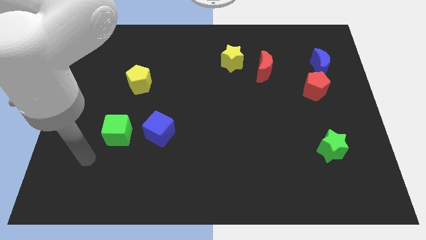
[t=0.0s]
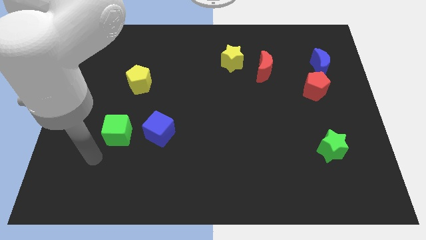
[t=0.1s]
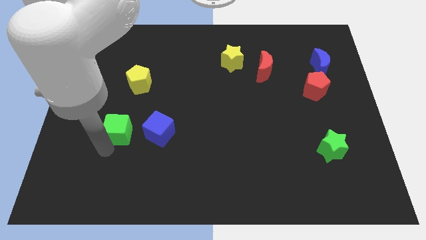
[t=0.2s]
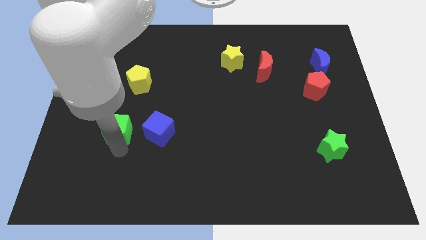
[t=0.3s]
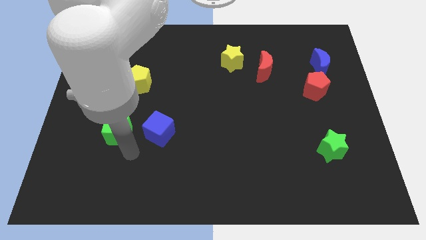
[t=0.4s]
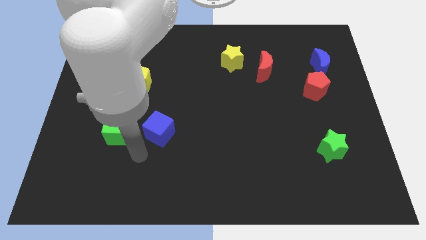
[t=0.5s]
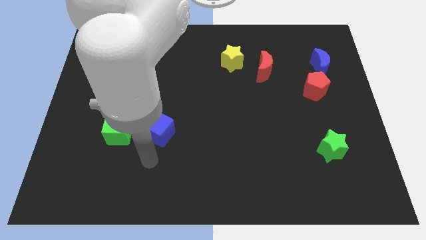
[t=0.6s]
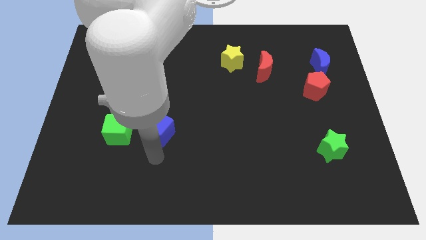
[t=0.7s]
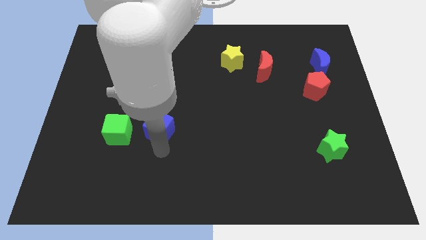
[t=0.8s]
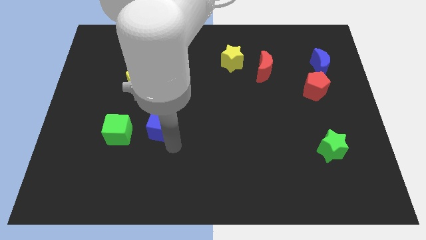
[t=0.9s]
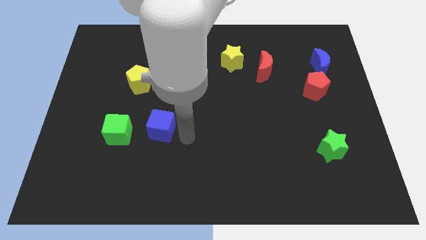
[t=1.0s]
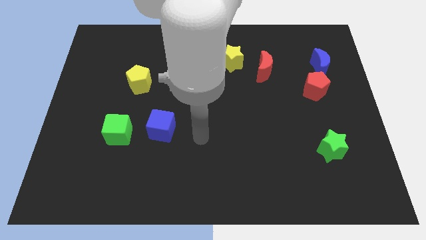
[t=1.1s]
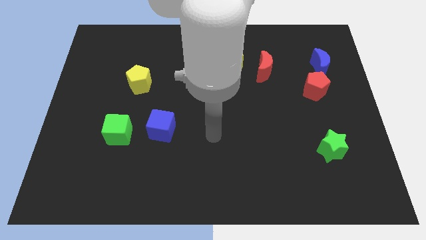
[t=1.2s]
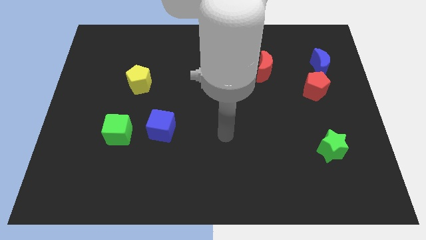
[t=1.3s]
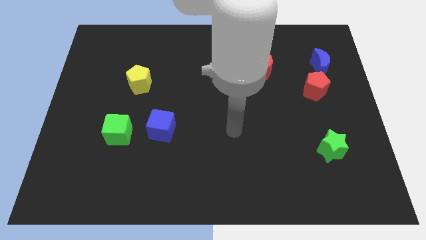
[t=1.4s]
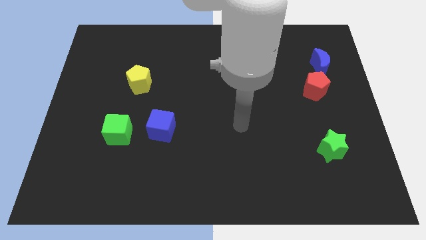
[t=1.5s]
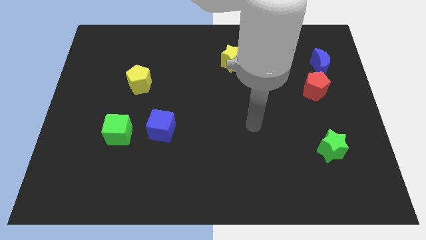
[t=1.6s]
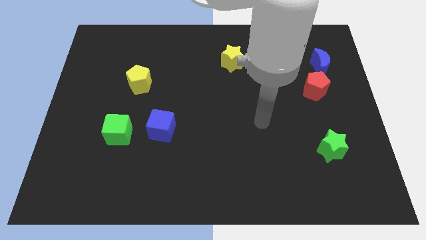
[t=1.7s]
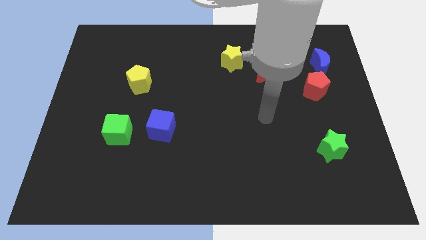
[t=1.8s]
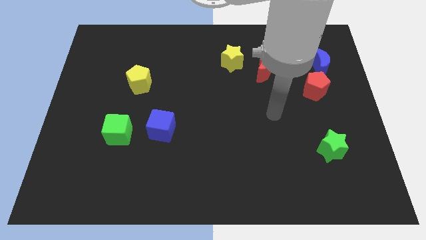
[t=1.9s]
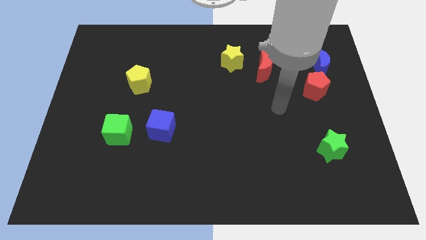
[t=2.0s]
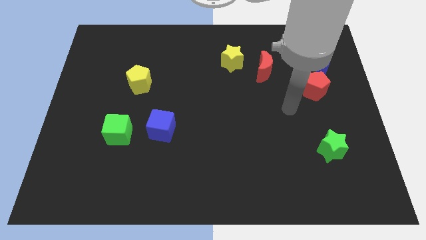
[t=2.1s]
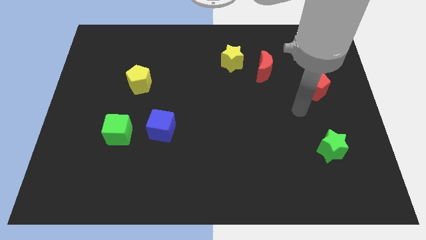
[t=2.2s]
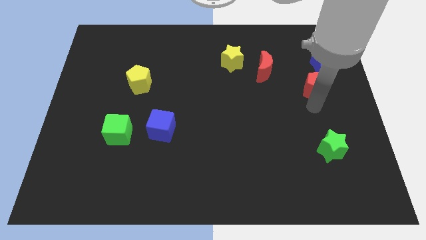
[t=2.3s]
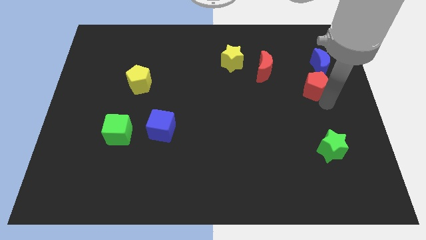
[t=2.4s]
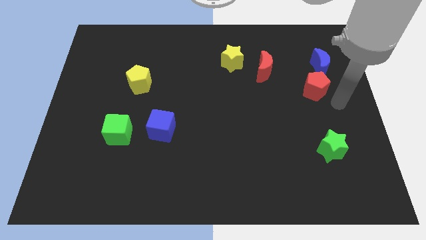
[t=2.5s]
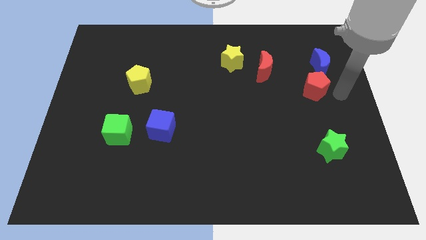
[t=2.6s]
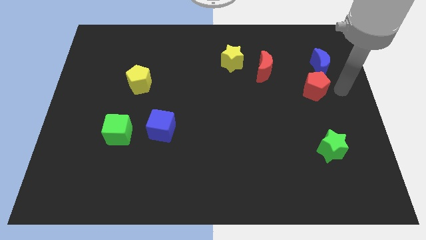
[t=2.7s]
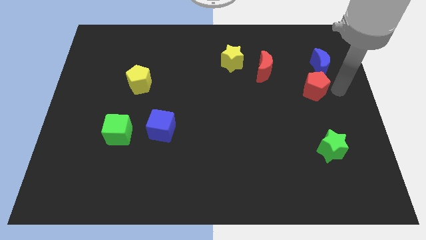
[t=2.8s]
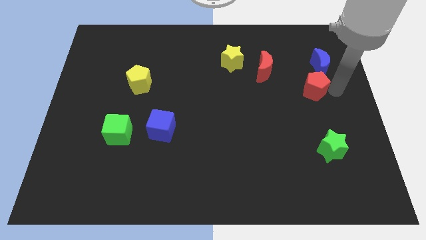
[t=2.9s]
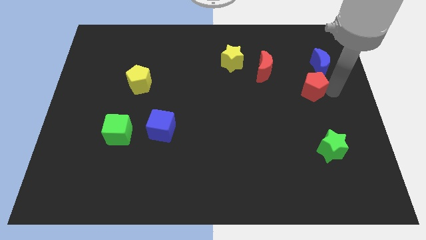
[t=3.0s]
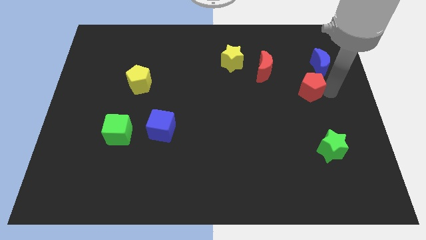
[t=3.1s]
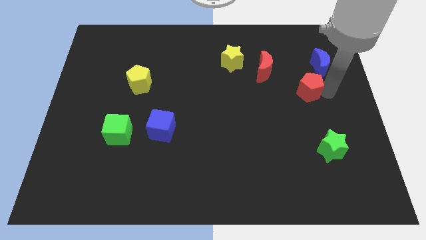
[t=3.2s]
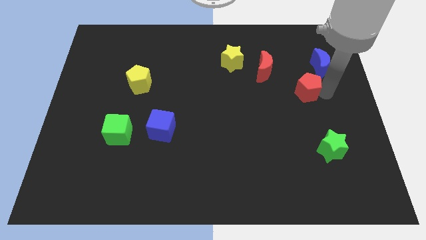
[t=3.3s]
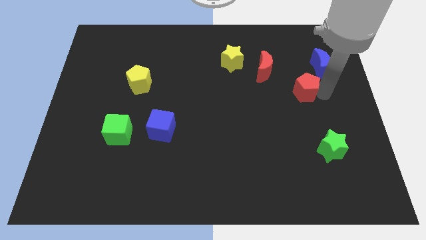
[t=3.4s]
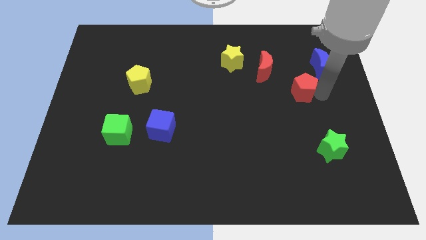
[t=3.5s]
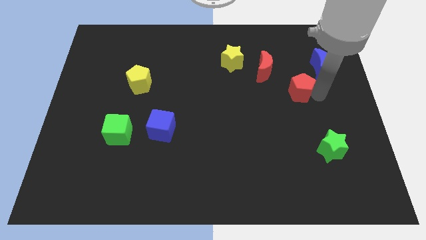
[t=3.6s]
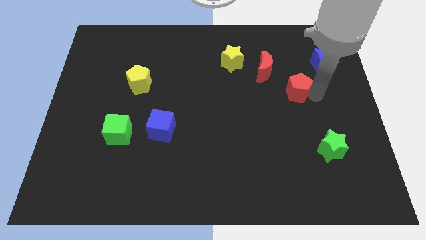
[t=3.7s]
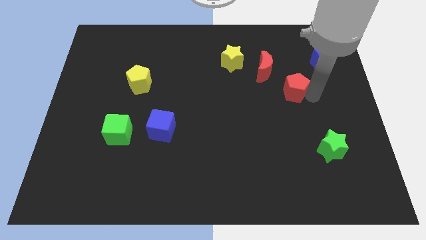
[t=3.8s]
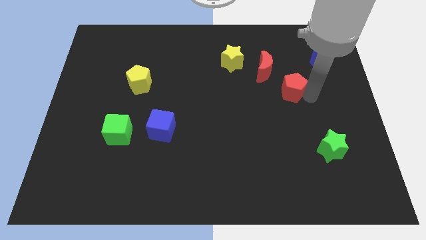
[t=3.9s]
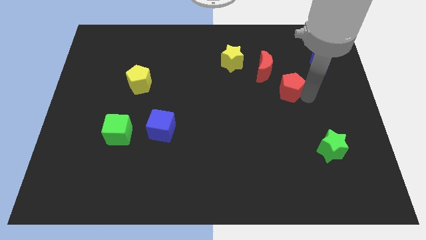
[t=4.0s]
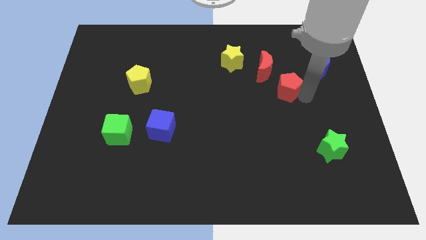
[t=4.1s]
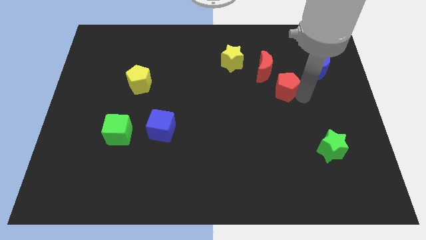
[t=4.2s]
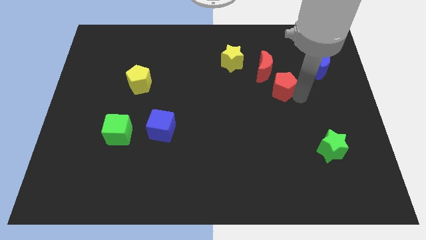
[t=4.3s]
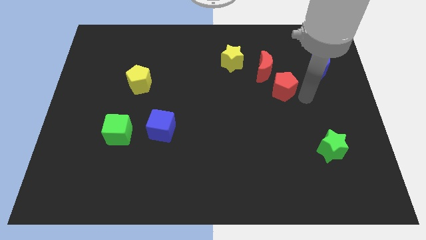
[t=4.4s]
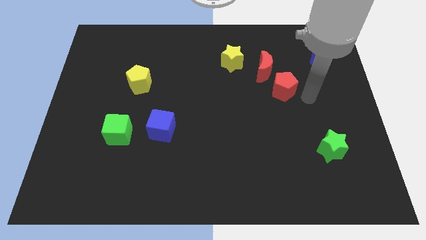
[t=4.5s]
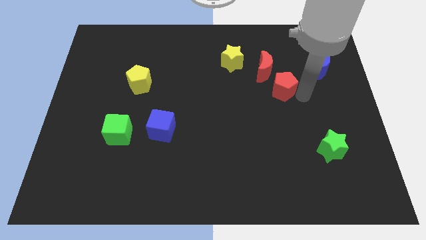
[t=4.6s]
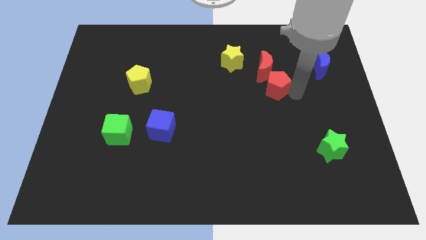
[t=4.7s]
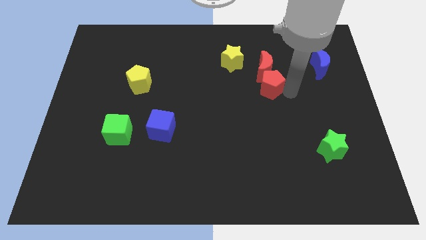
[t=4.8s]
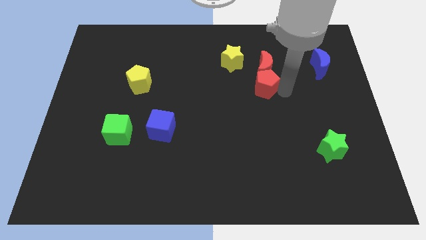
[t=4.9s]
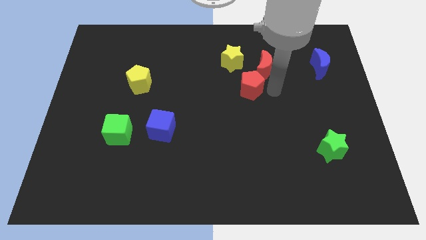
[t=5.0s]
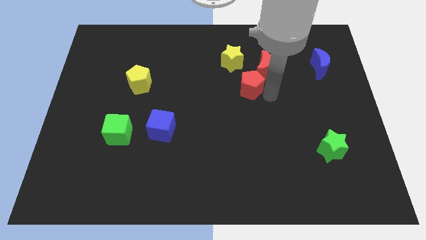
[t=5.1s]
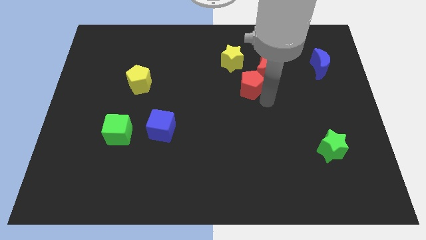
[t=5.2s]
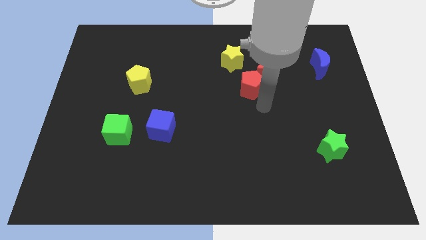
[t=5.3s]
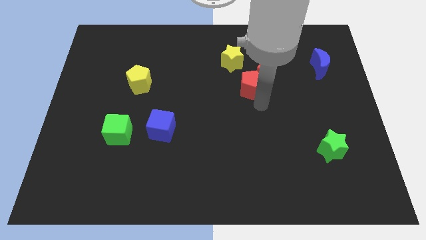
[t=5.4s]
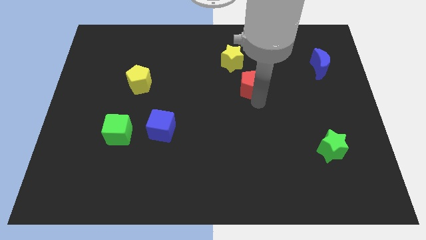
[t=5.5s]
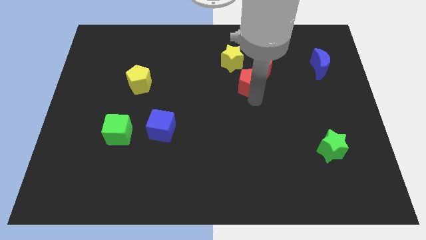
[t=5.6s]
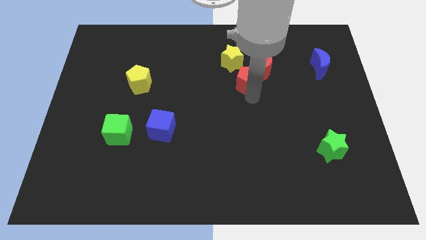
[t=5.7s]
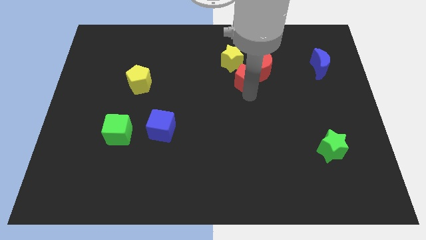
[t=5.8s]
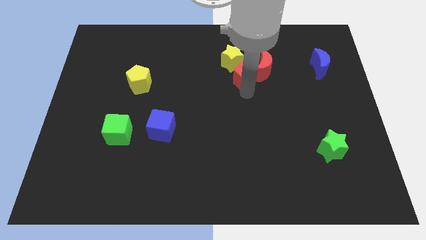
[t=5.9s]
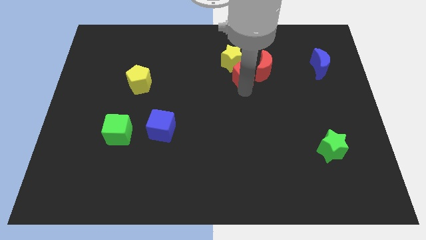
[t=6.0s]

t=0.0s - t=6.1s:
move the red pentagon close to the yellow star

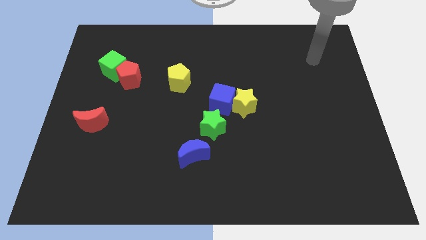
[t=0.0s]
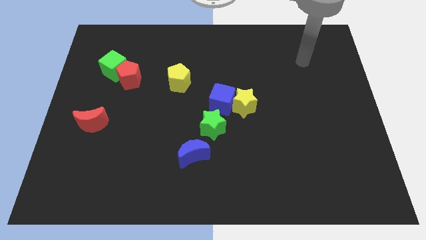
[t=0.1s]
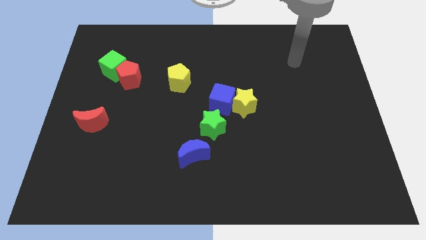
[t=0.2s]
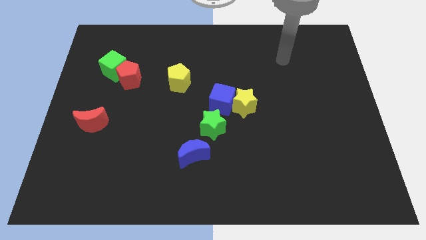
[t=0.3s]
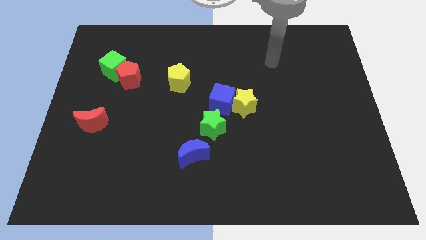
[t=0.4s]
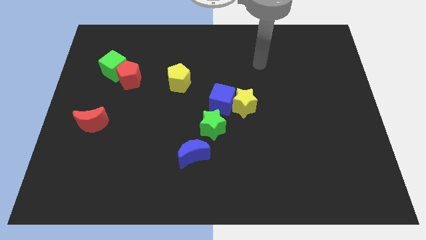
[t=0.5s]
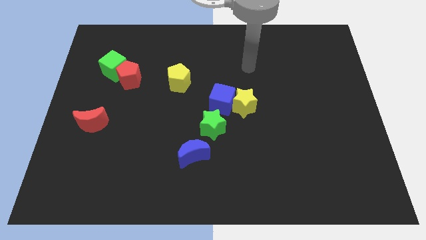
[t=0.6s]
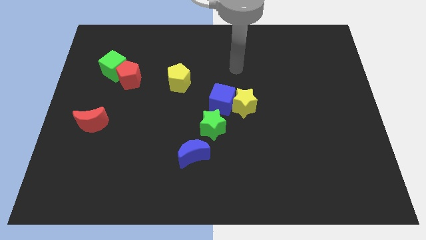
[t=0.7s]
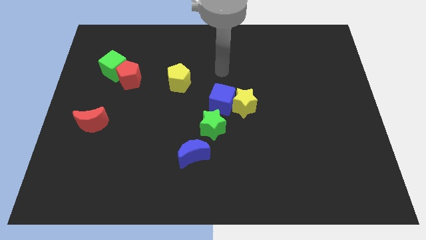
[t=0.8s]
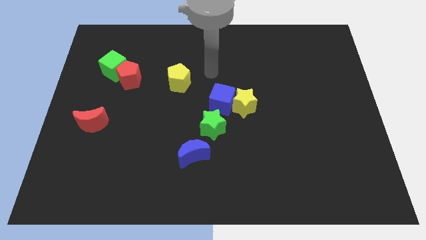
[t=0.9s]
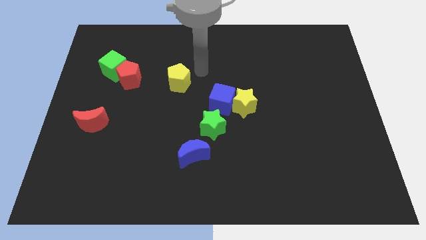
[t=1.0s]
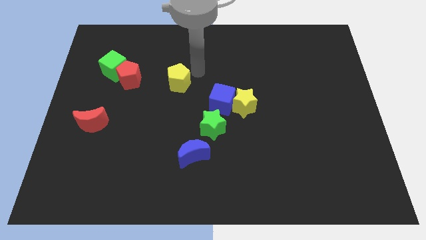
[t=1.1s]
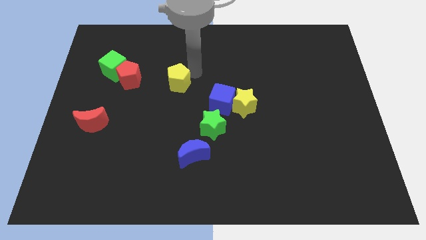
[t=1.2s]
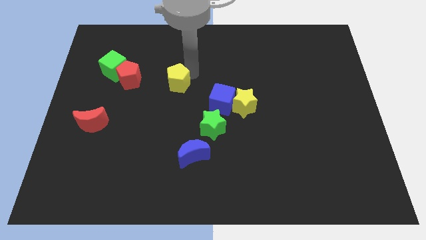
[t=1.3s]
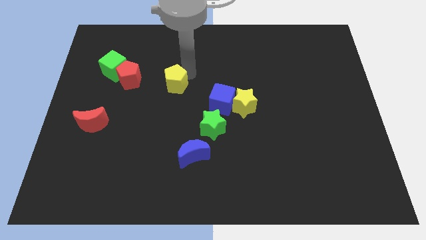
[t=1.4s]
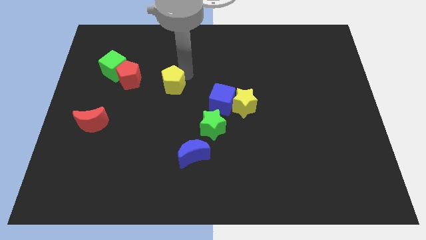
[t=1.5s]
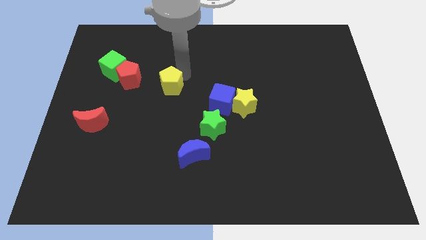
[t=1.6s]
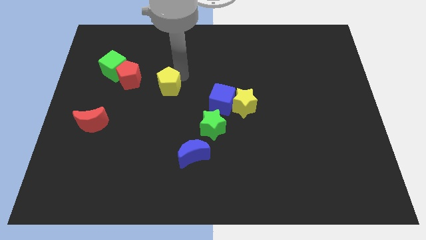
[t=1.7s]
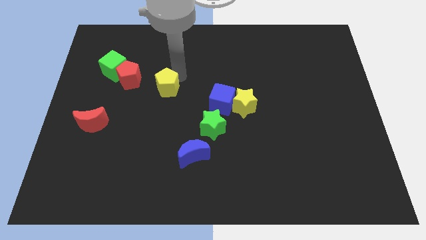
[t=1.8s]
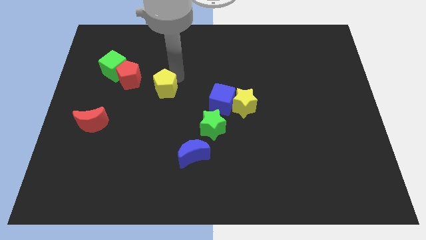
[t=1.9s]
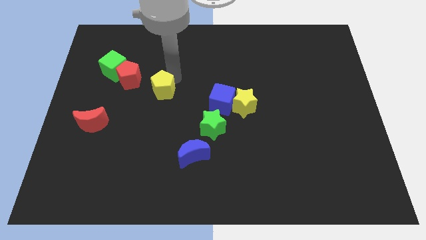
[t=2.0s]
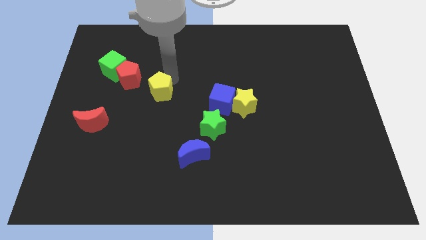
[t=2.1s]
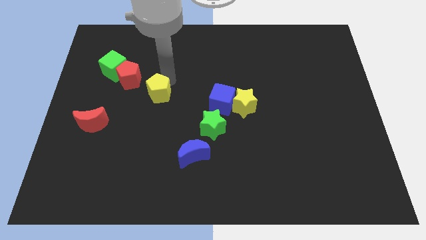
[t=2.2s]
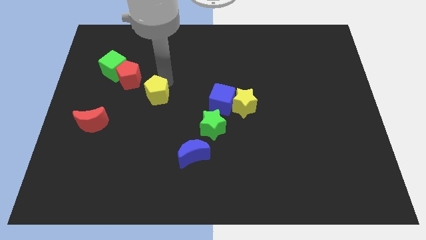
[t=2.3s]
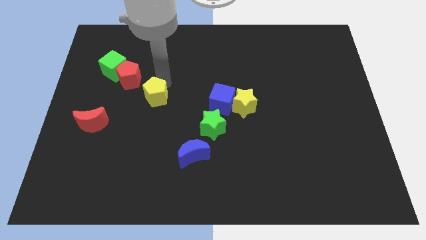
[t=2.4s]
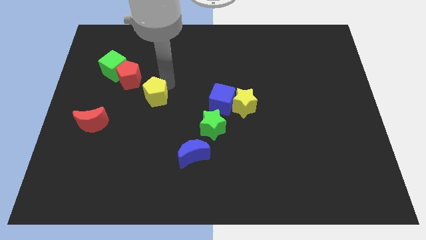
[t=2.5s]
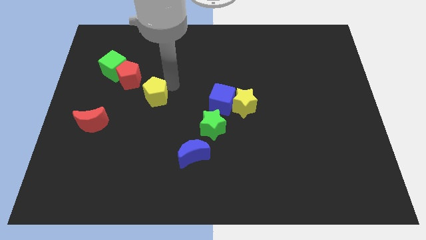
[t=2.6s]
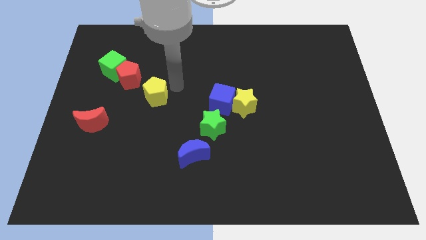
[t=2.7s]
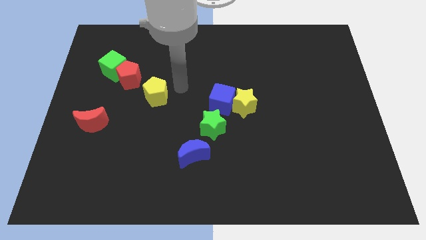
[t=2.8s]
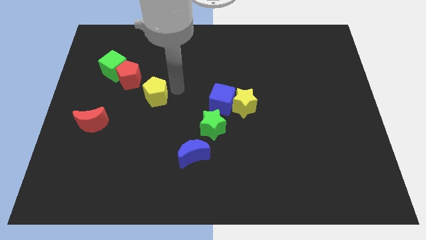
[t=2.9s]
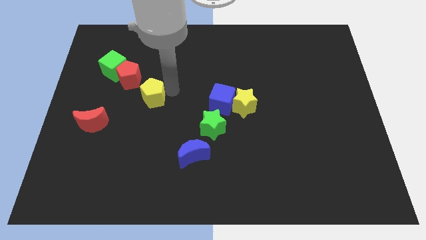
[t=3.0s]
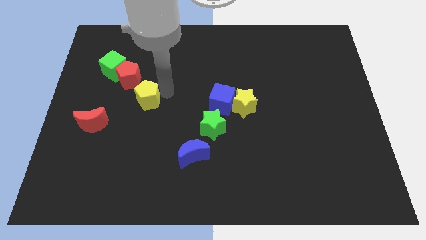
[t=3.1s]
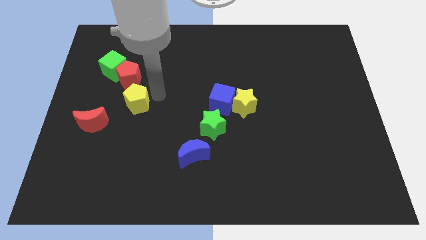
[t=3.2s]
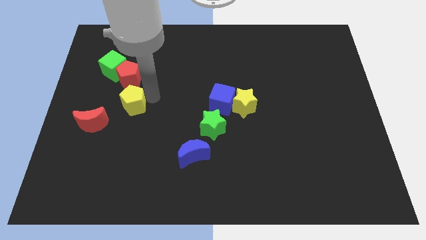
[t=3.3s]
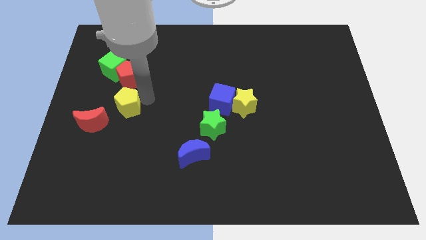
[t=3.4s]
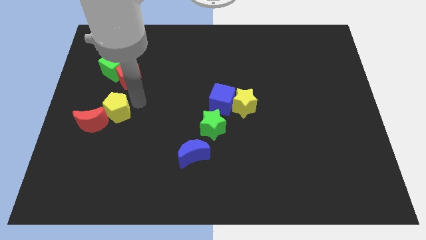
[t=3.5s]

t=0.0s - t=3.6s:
push the yellow pentagon towards the red moon
